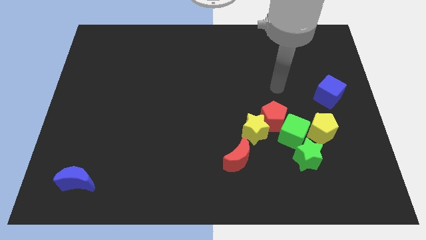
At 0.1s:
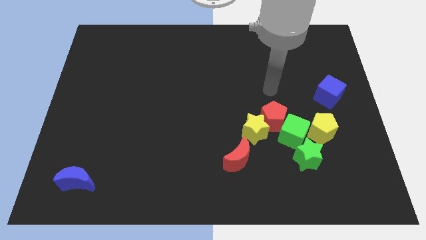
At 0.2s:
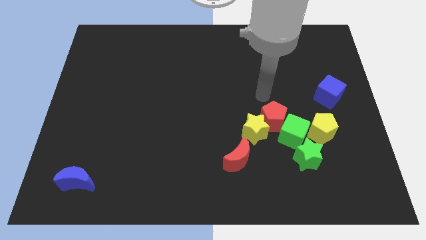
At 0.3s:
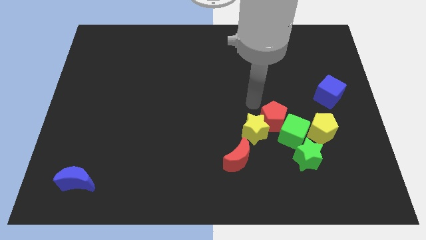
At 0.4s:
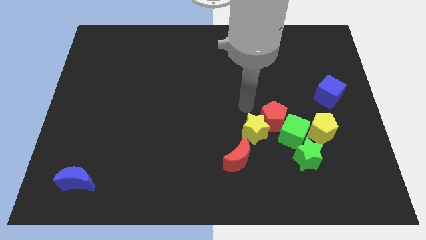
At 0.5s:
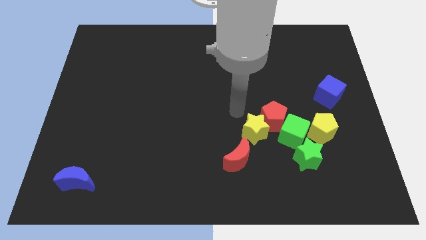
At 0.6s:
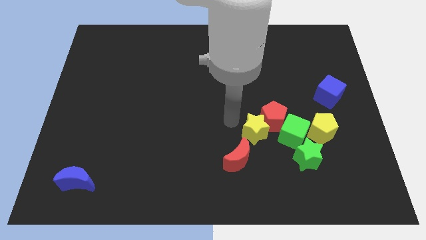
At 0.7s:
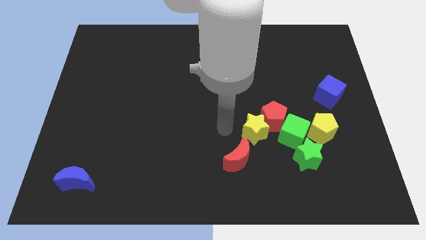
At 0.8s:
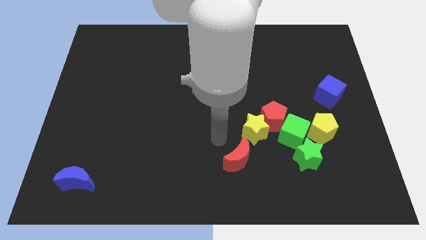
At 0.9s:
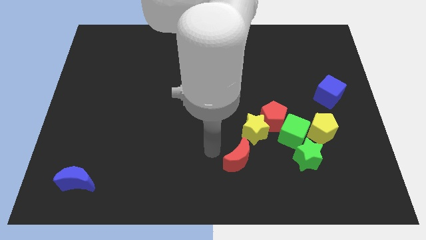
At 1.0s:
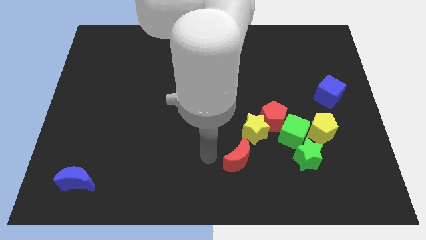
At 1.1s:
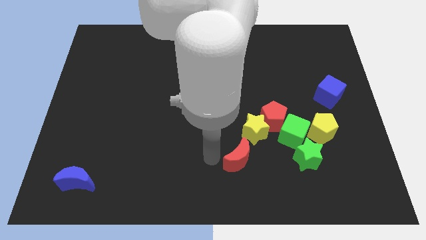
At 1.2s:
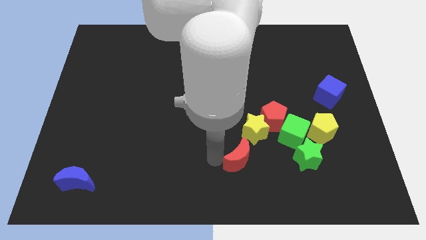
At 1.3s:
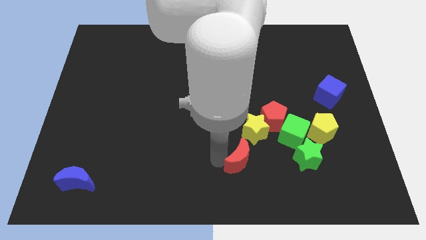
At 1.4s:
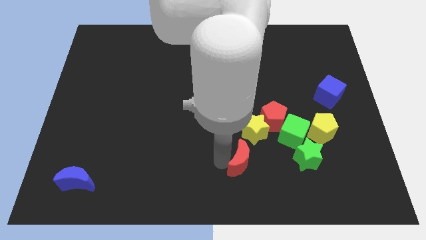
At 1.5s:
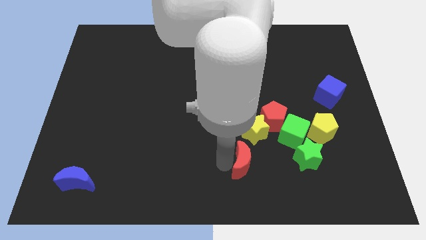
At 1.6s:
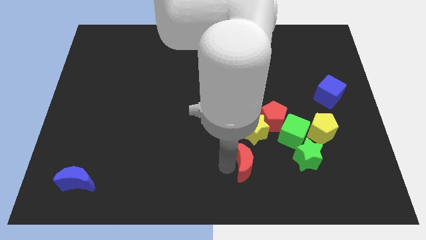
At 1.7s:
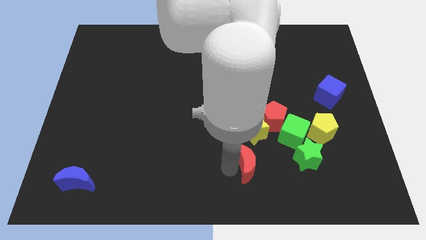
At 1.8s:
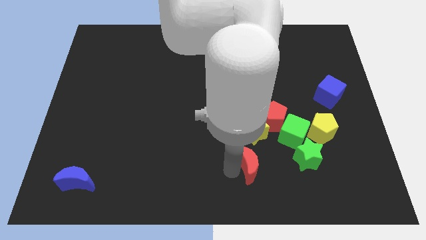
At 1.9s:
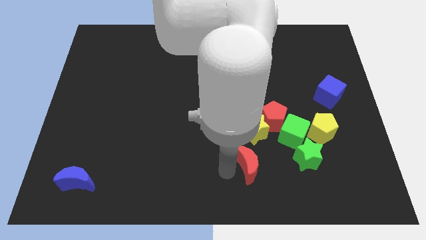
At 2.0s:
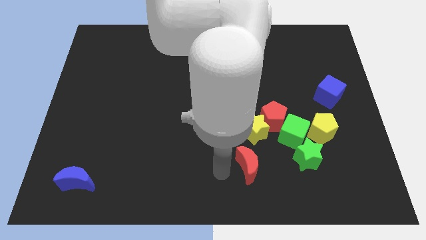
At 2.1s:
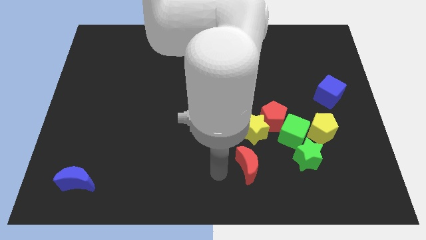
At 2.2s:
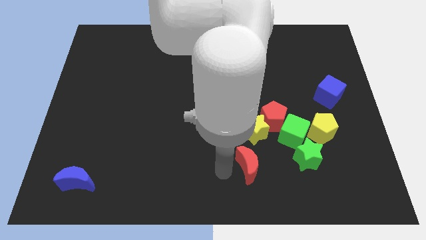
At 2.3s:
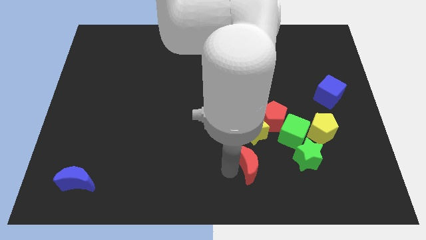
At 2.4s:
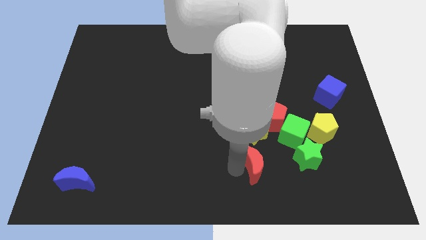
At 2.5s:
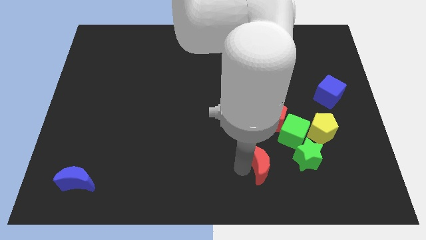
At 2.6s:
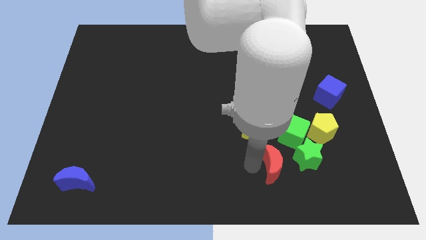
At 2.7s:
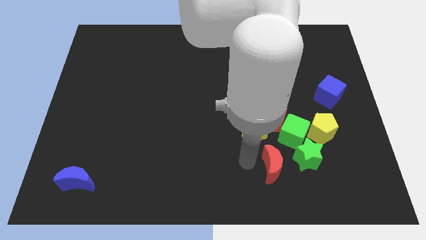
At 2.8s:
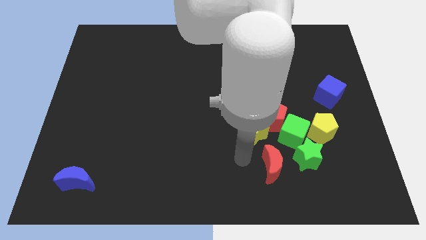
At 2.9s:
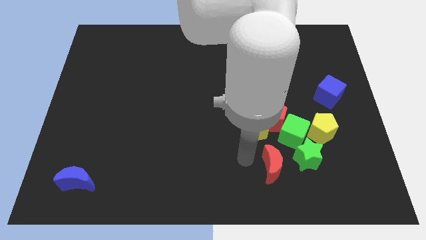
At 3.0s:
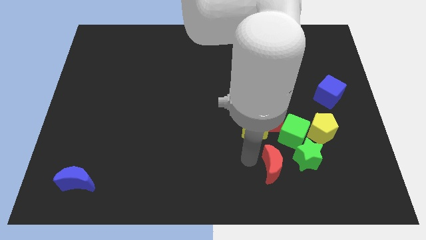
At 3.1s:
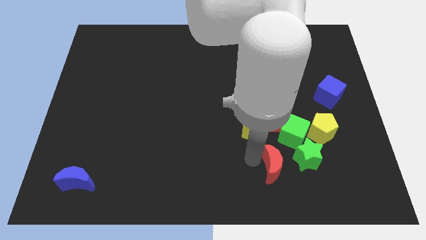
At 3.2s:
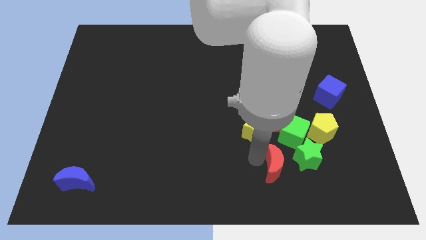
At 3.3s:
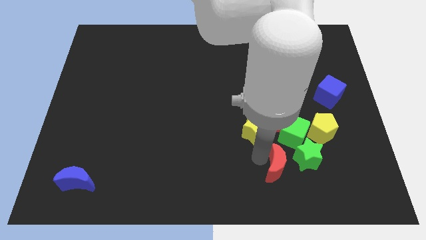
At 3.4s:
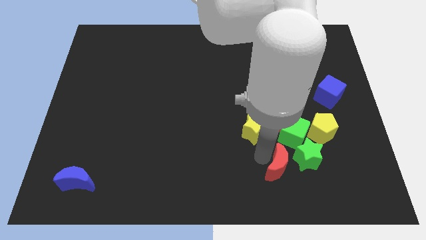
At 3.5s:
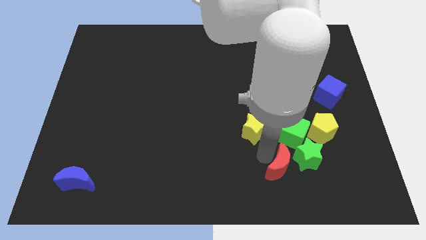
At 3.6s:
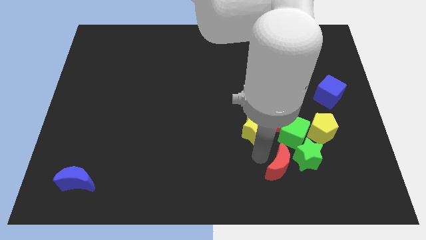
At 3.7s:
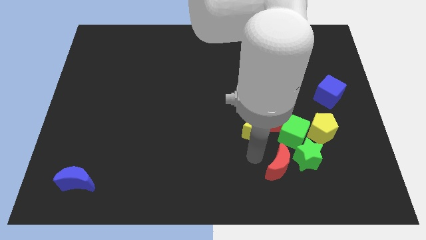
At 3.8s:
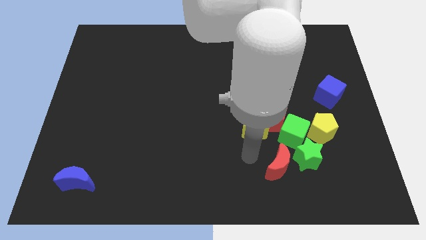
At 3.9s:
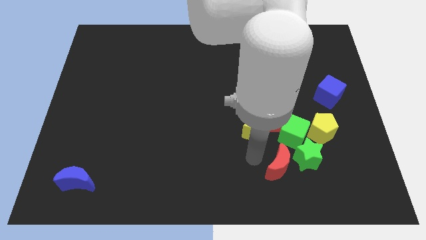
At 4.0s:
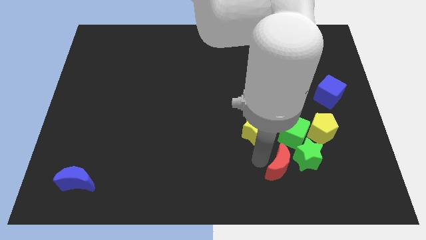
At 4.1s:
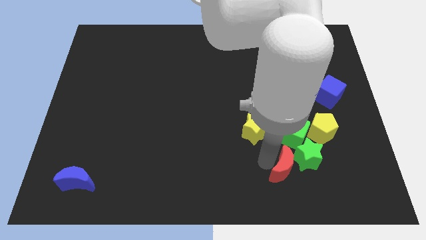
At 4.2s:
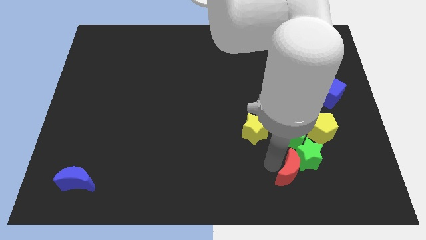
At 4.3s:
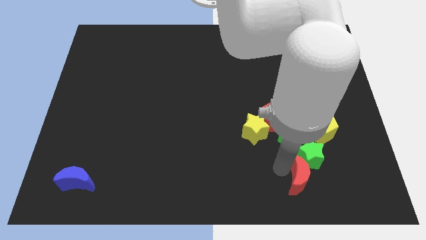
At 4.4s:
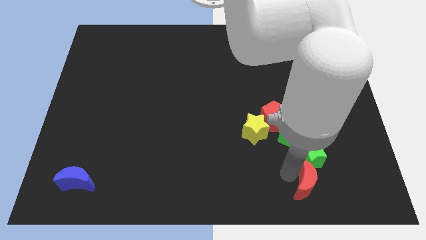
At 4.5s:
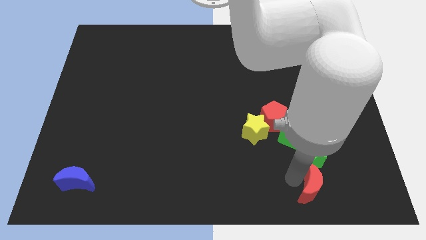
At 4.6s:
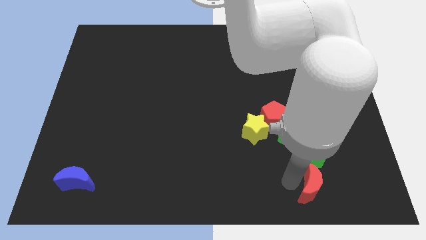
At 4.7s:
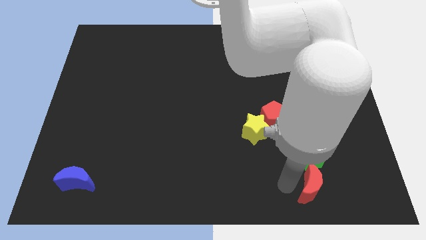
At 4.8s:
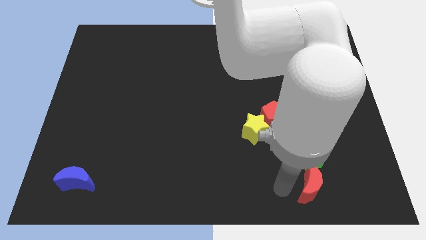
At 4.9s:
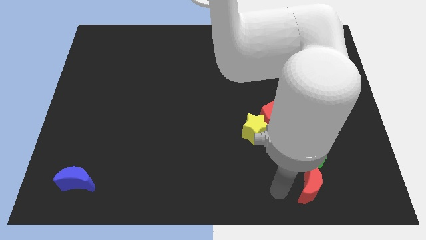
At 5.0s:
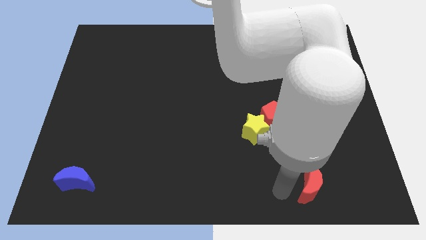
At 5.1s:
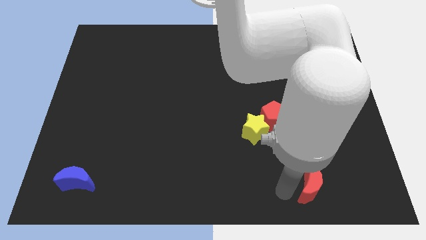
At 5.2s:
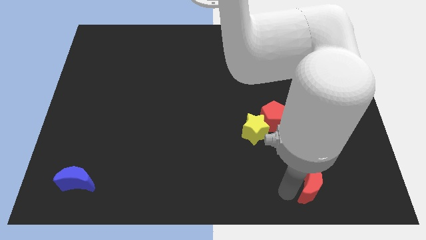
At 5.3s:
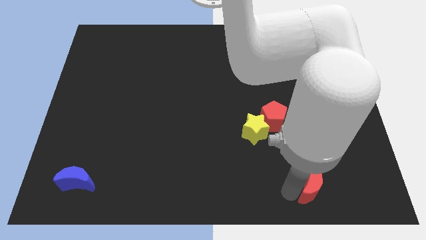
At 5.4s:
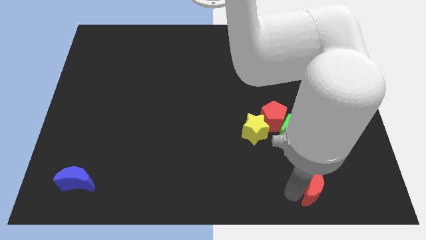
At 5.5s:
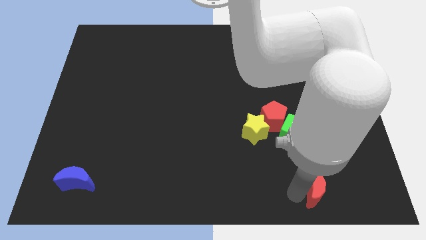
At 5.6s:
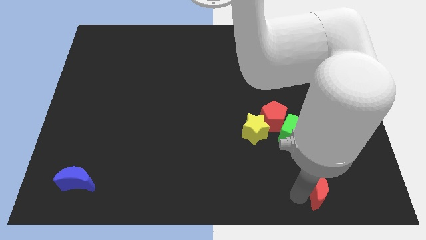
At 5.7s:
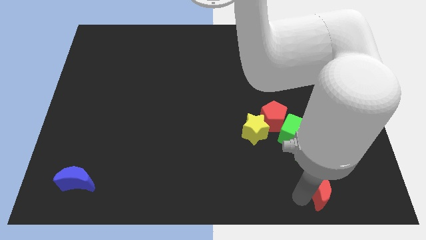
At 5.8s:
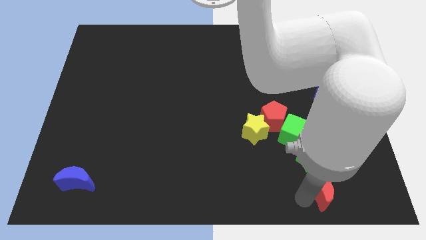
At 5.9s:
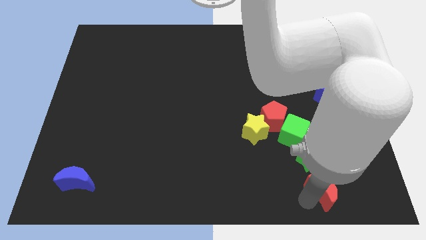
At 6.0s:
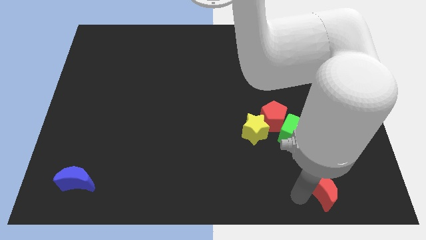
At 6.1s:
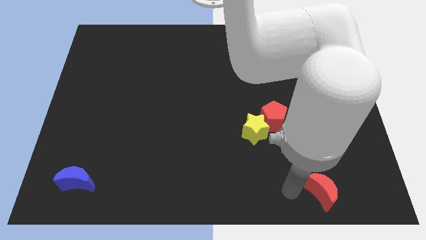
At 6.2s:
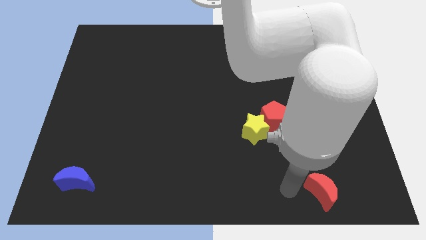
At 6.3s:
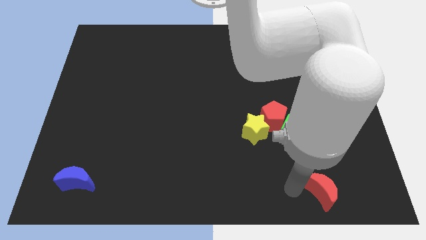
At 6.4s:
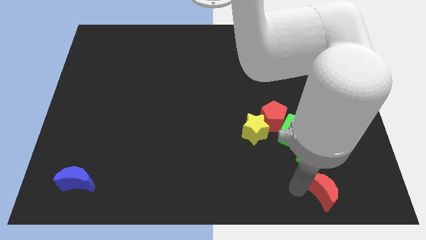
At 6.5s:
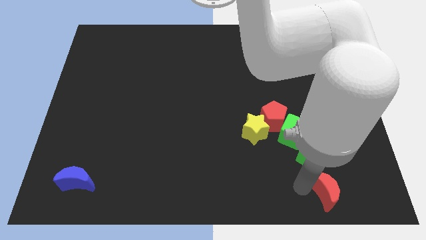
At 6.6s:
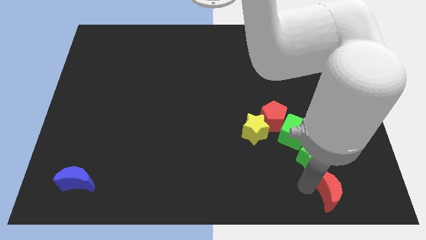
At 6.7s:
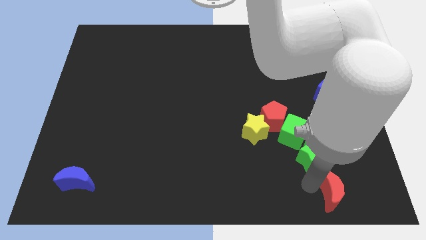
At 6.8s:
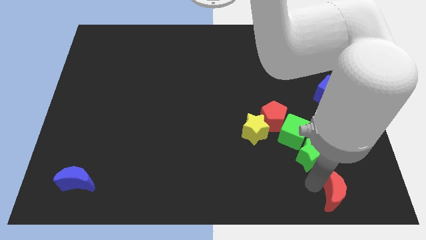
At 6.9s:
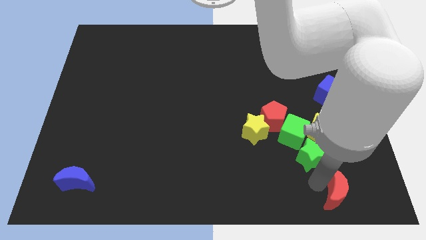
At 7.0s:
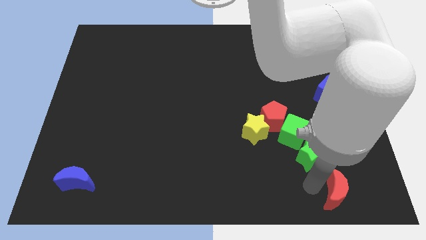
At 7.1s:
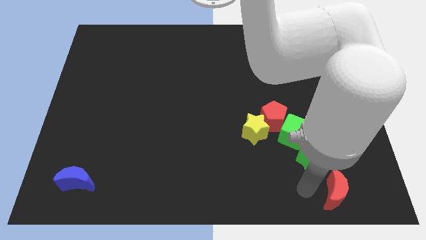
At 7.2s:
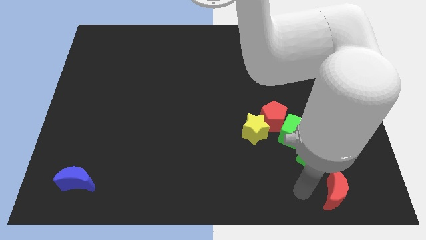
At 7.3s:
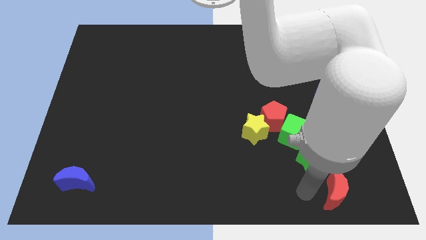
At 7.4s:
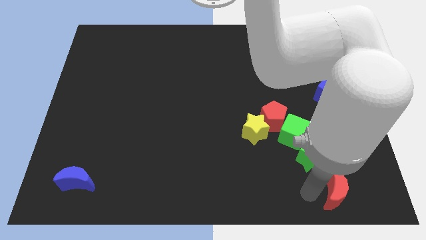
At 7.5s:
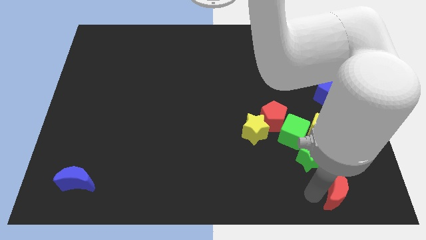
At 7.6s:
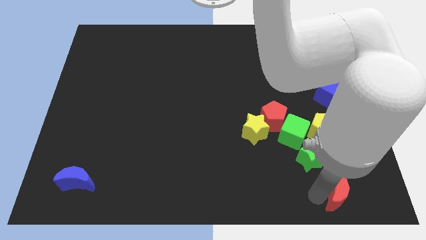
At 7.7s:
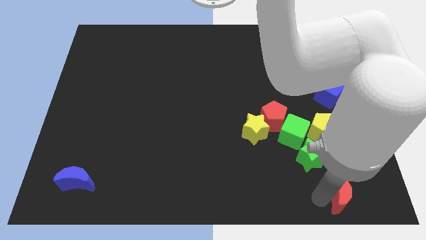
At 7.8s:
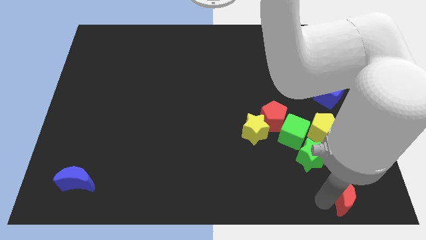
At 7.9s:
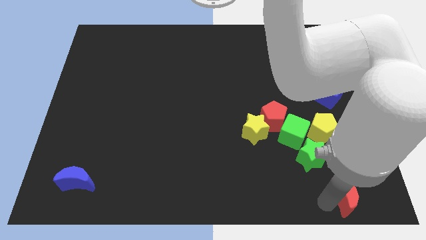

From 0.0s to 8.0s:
move the red moon to the lower right corner

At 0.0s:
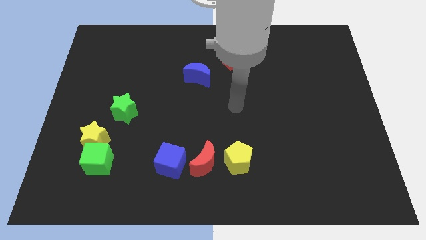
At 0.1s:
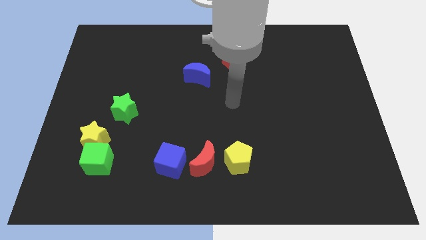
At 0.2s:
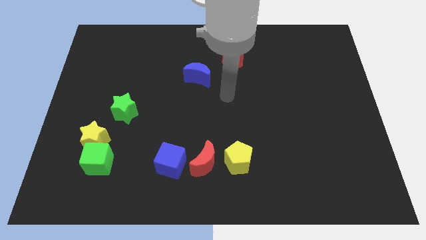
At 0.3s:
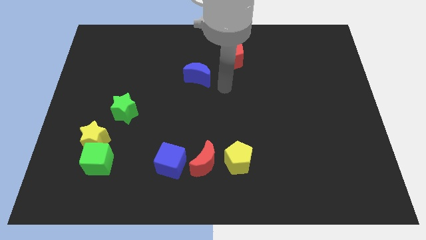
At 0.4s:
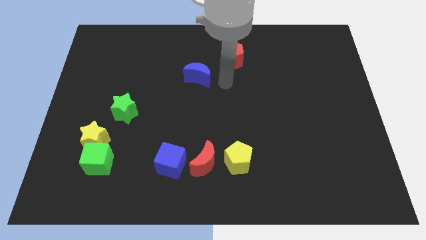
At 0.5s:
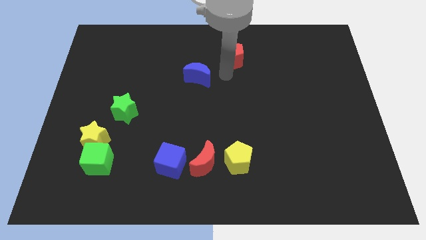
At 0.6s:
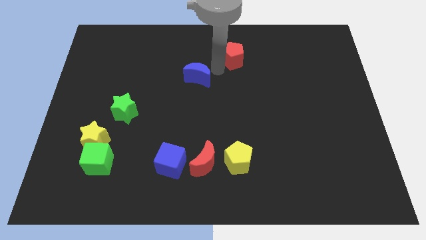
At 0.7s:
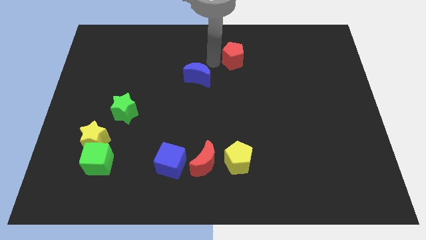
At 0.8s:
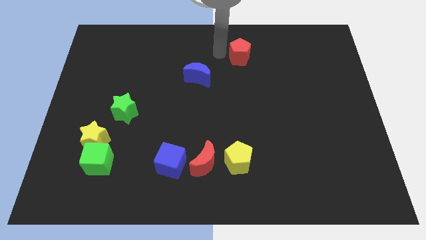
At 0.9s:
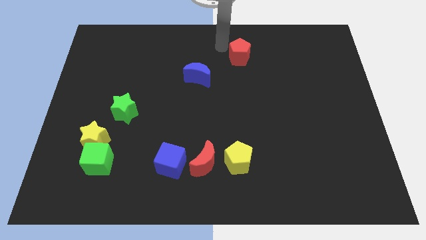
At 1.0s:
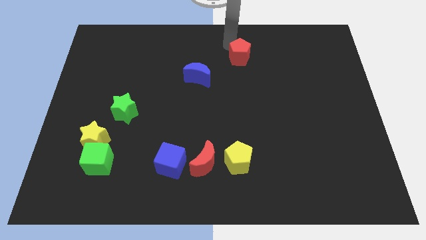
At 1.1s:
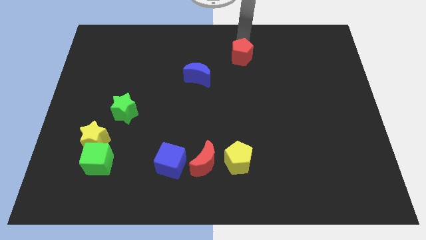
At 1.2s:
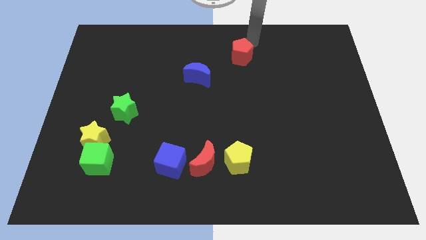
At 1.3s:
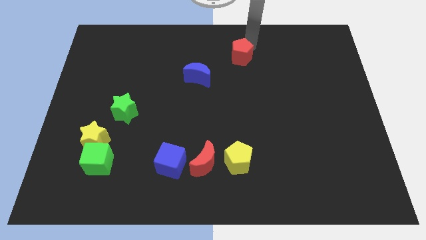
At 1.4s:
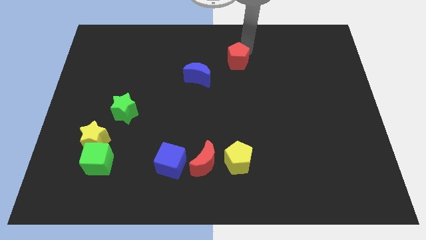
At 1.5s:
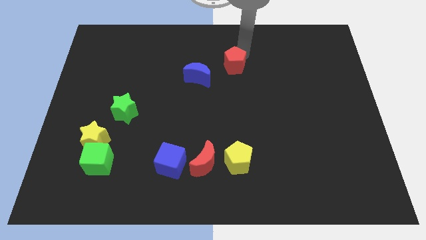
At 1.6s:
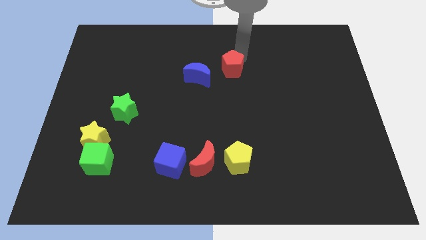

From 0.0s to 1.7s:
put the red pentagon to the middle of the board
